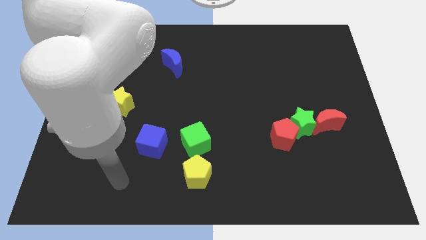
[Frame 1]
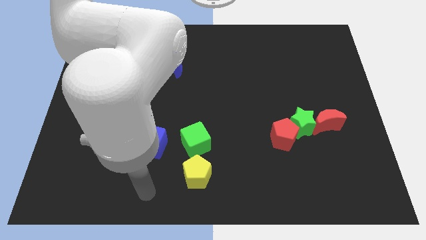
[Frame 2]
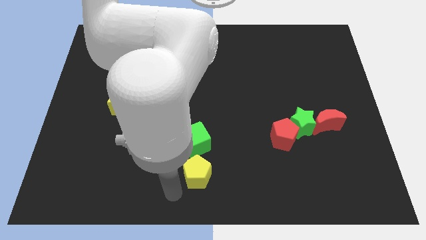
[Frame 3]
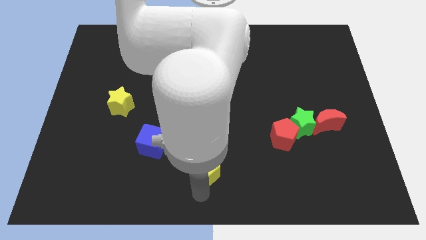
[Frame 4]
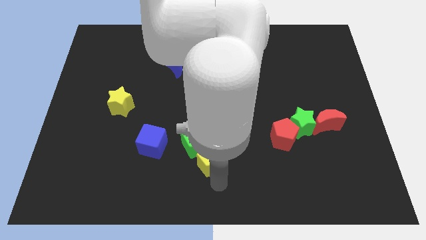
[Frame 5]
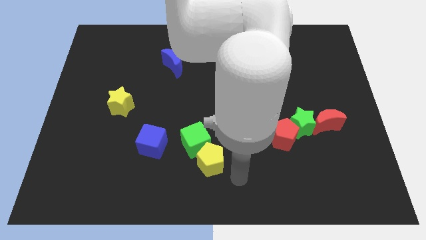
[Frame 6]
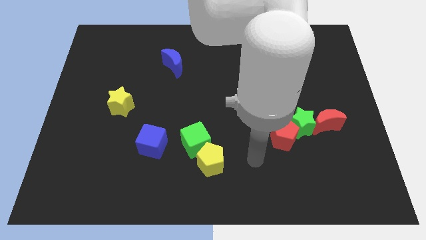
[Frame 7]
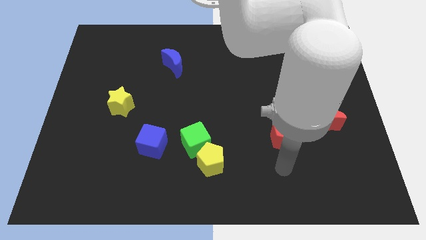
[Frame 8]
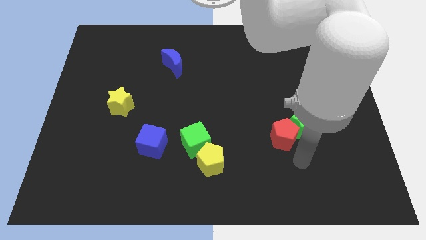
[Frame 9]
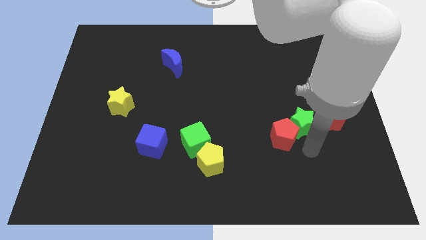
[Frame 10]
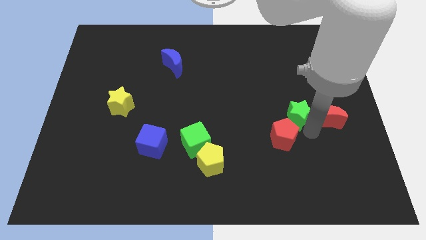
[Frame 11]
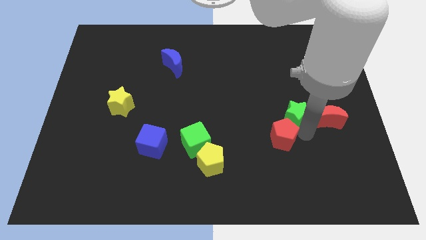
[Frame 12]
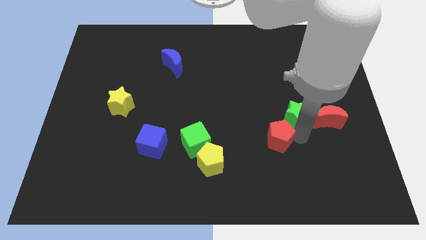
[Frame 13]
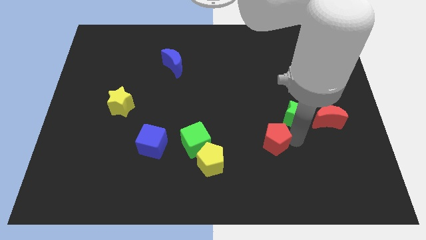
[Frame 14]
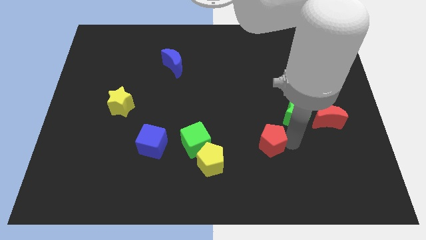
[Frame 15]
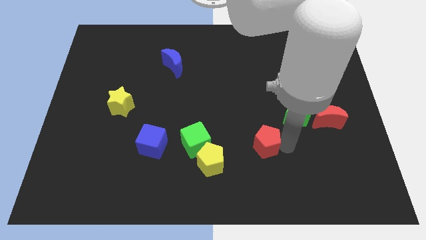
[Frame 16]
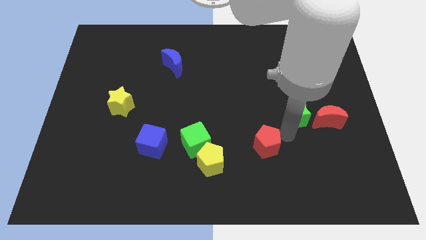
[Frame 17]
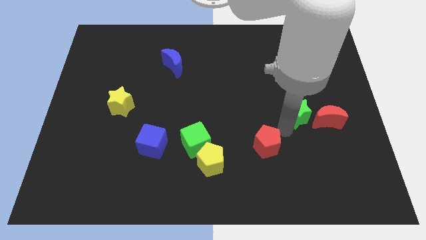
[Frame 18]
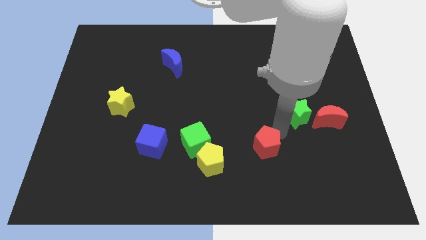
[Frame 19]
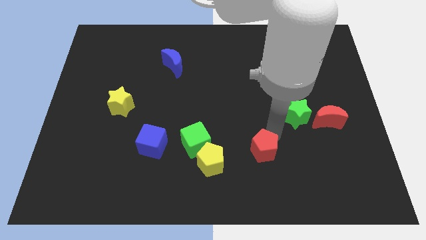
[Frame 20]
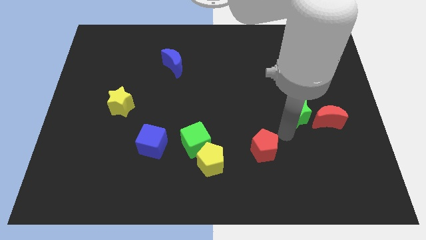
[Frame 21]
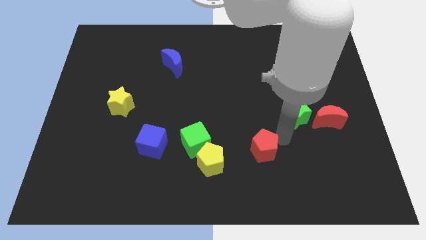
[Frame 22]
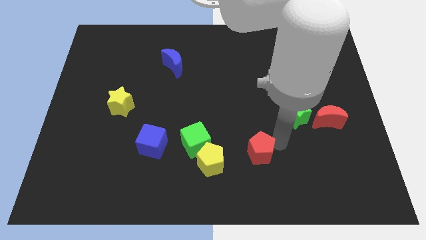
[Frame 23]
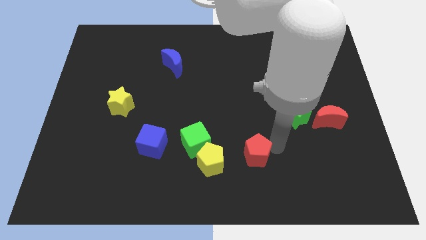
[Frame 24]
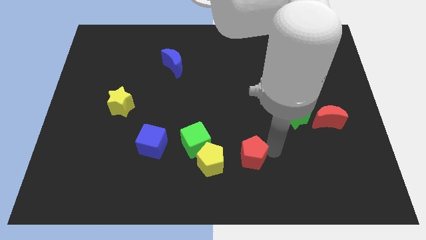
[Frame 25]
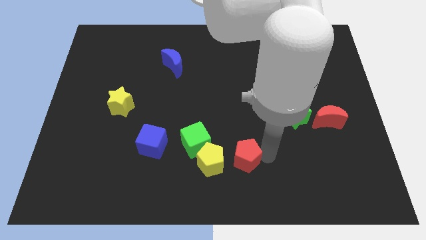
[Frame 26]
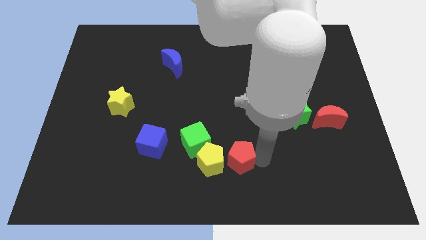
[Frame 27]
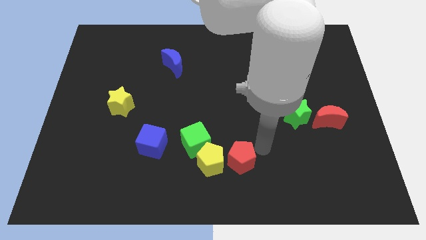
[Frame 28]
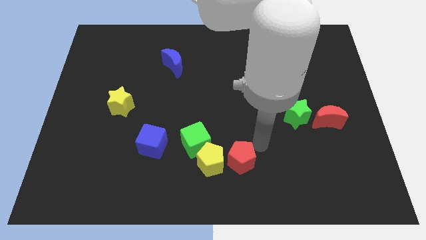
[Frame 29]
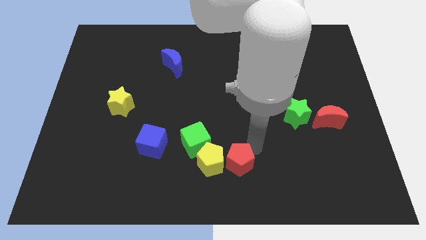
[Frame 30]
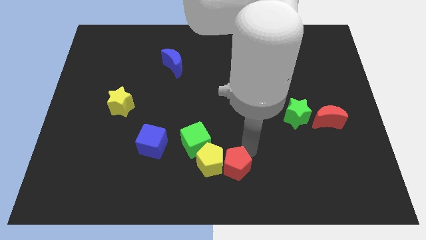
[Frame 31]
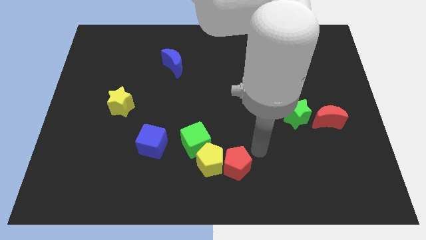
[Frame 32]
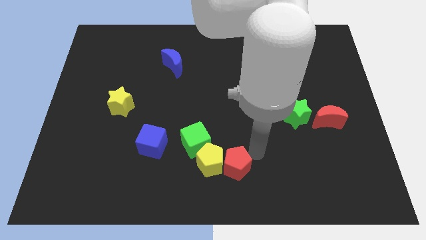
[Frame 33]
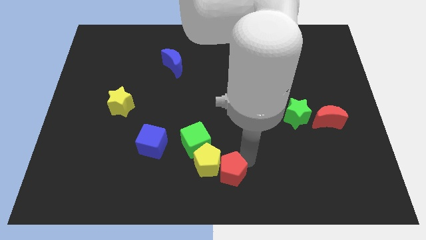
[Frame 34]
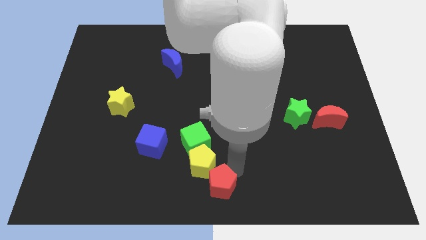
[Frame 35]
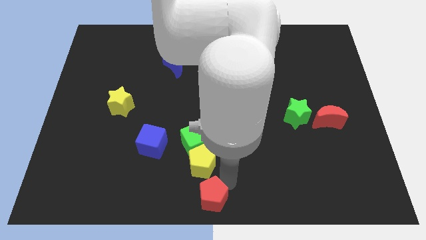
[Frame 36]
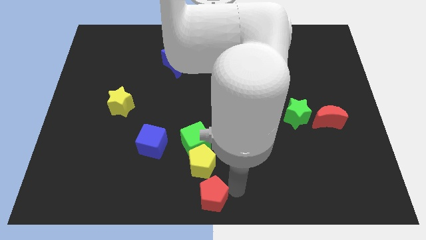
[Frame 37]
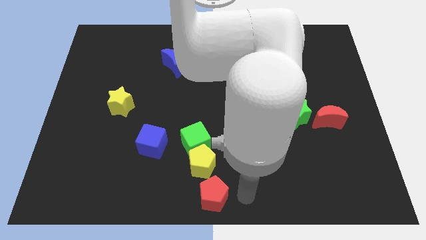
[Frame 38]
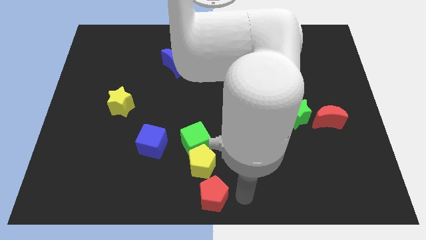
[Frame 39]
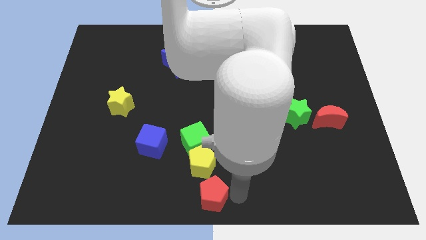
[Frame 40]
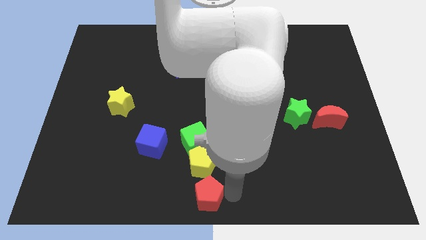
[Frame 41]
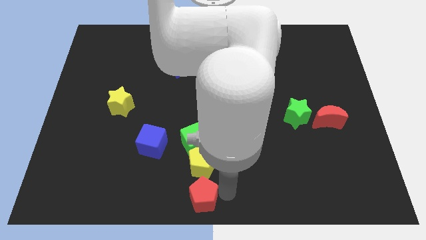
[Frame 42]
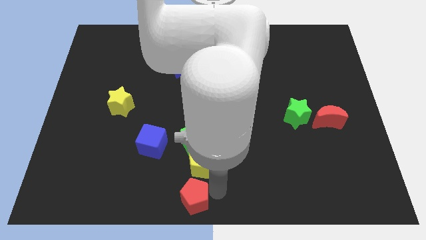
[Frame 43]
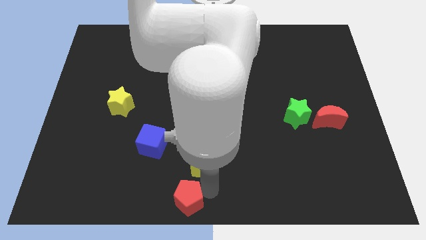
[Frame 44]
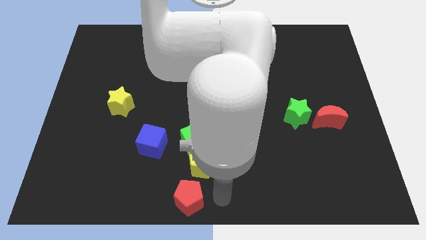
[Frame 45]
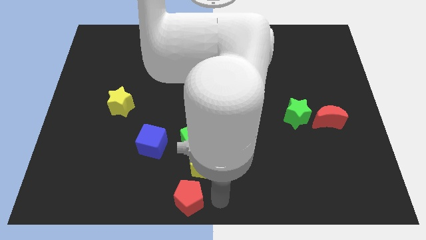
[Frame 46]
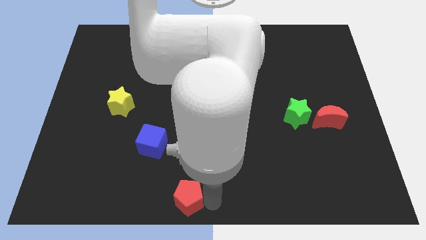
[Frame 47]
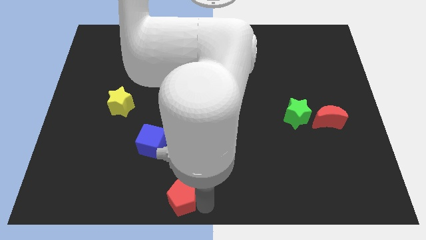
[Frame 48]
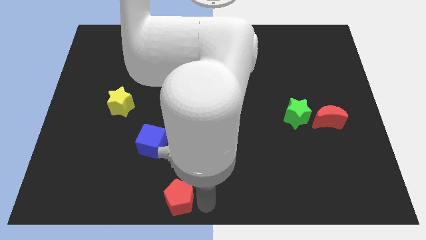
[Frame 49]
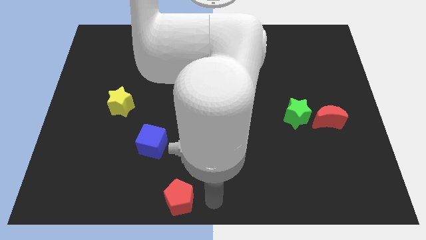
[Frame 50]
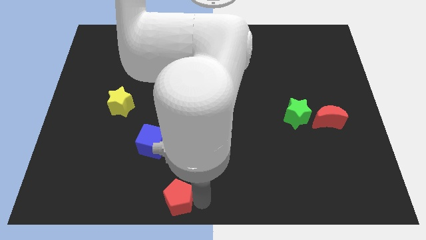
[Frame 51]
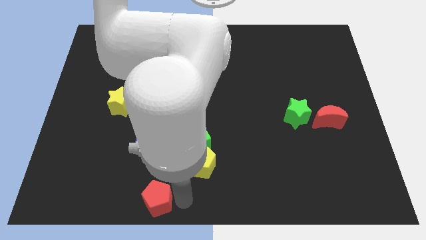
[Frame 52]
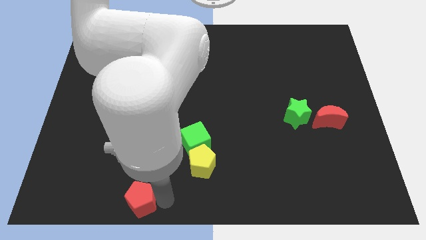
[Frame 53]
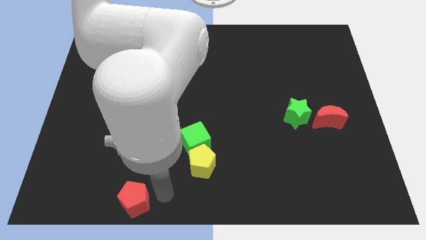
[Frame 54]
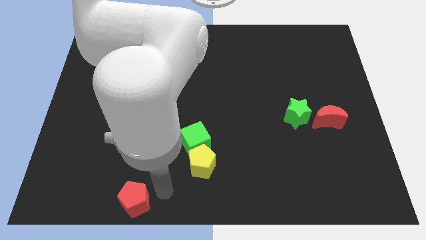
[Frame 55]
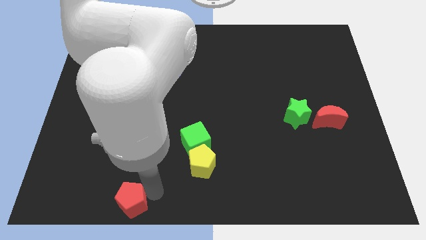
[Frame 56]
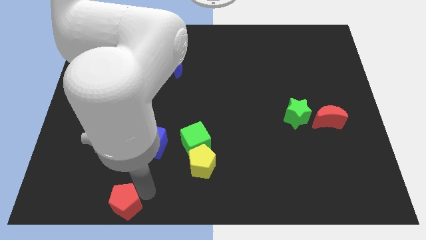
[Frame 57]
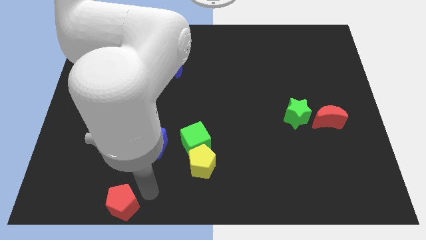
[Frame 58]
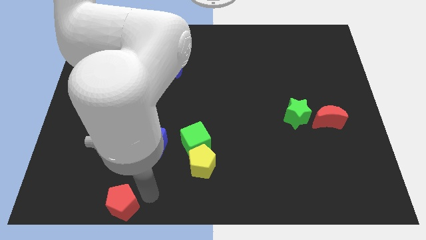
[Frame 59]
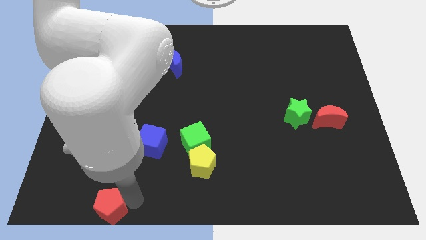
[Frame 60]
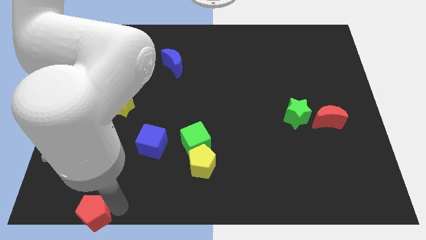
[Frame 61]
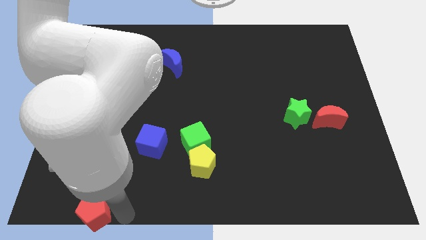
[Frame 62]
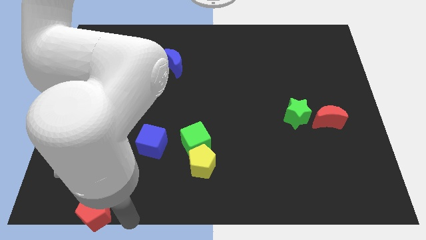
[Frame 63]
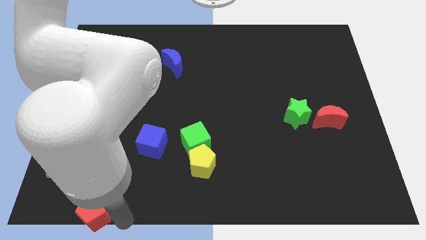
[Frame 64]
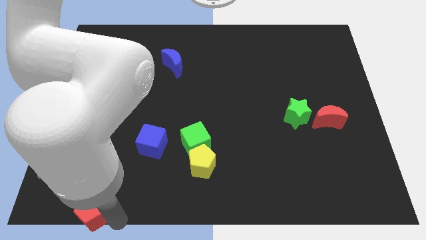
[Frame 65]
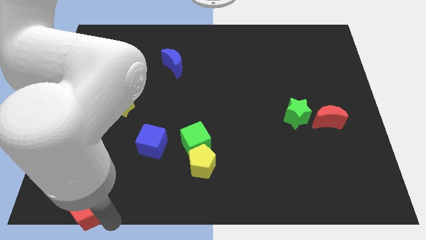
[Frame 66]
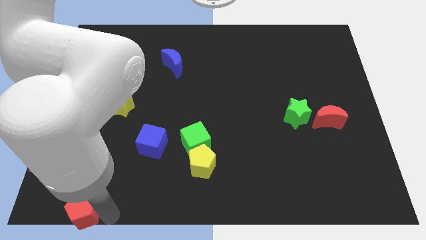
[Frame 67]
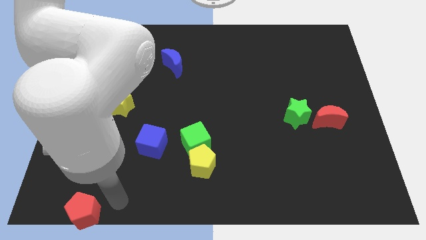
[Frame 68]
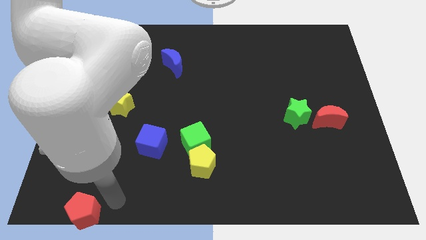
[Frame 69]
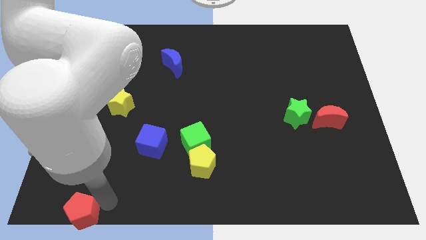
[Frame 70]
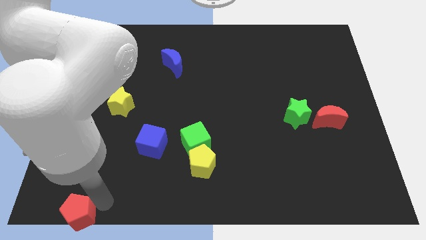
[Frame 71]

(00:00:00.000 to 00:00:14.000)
put the red pentagon to the lower left corner
